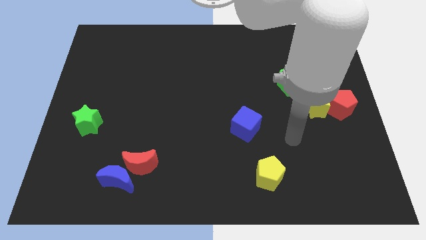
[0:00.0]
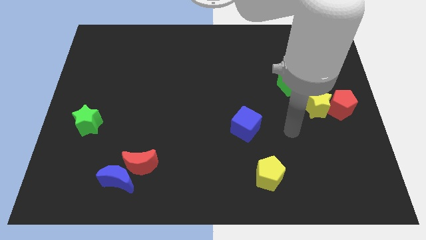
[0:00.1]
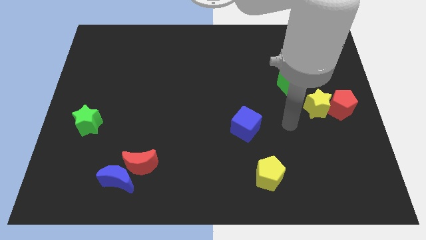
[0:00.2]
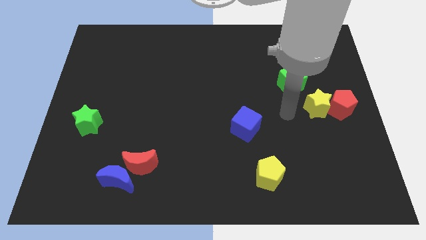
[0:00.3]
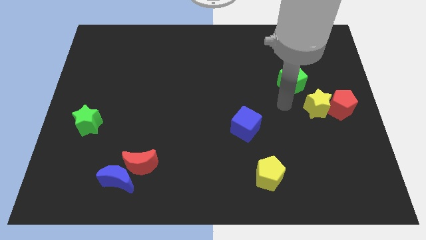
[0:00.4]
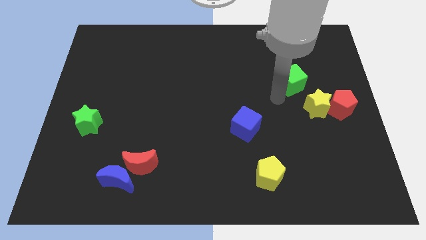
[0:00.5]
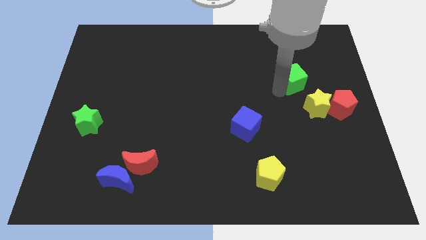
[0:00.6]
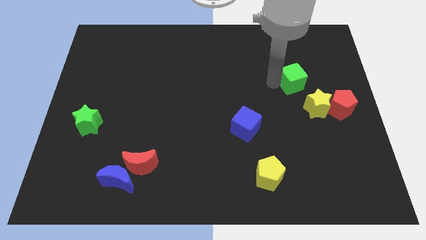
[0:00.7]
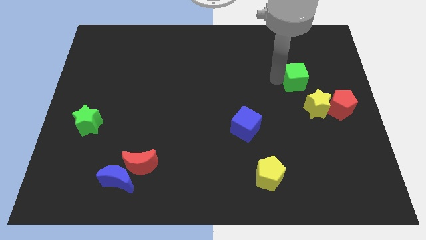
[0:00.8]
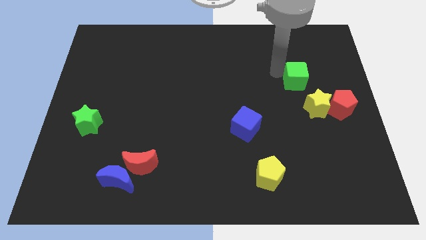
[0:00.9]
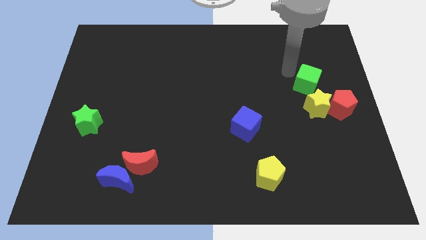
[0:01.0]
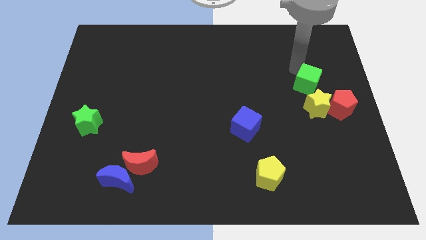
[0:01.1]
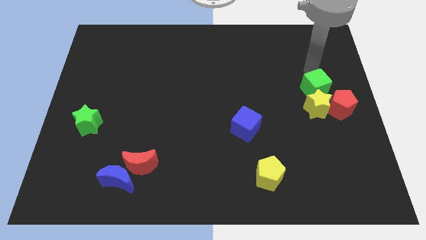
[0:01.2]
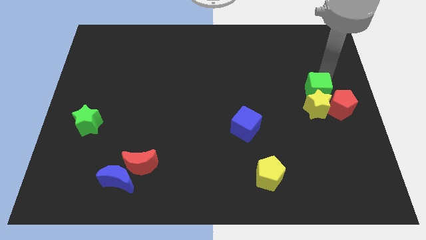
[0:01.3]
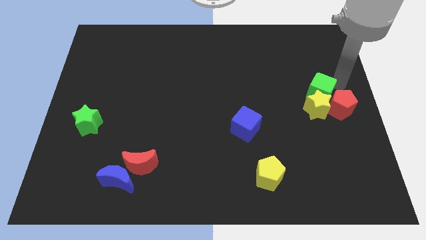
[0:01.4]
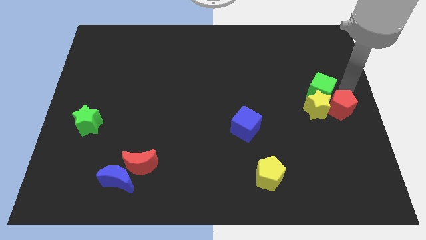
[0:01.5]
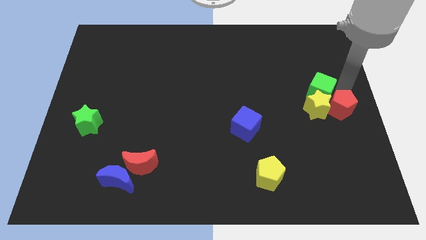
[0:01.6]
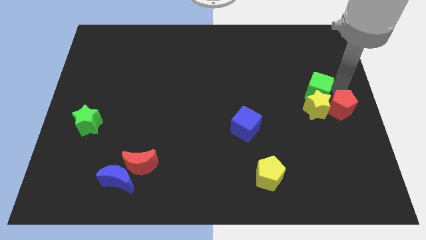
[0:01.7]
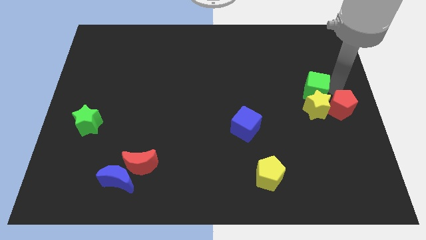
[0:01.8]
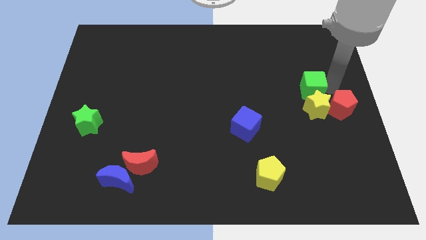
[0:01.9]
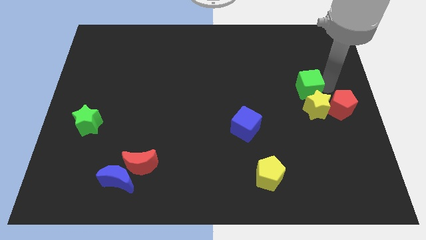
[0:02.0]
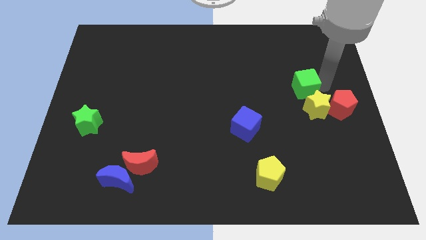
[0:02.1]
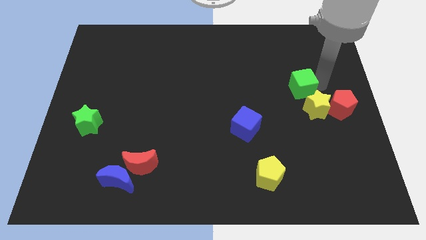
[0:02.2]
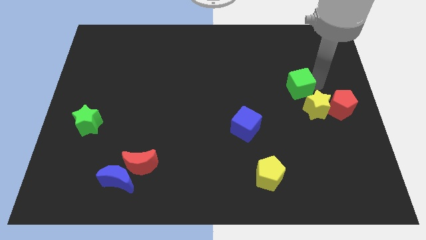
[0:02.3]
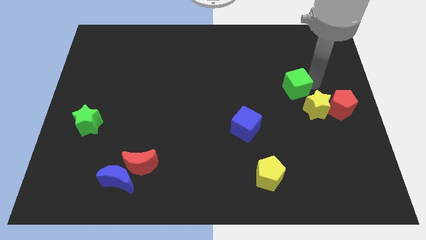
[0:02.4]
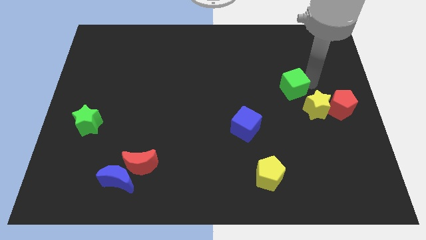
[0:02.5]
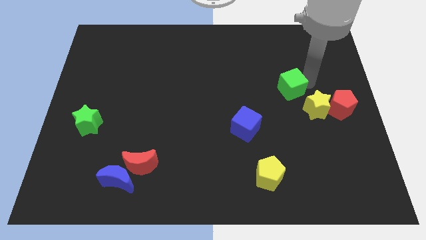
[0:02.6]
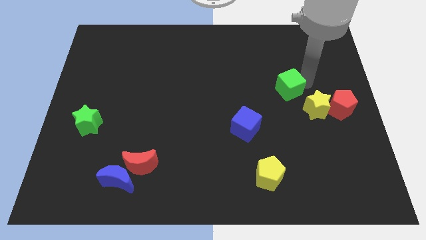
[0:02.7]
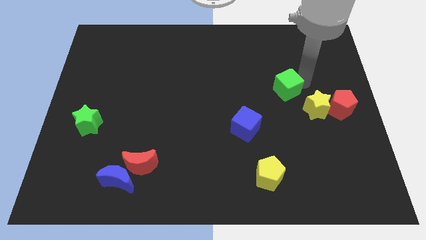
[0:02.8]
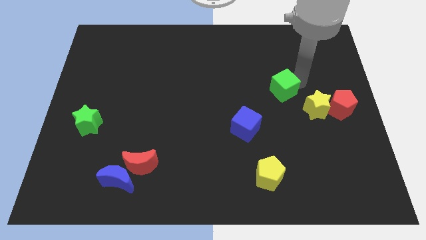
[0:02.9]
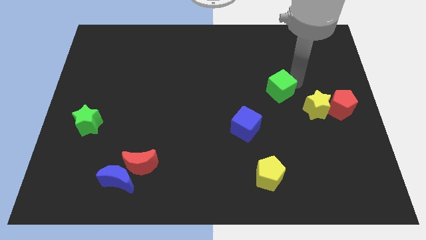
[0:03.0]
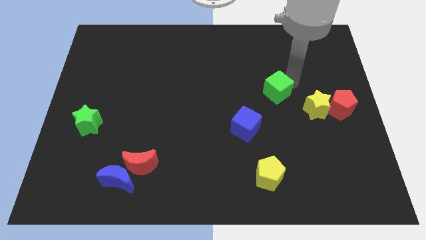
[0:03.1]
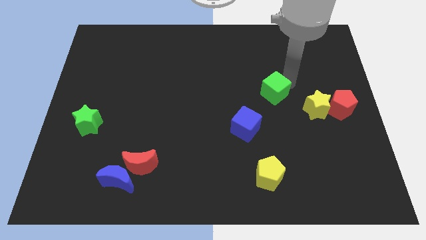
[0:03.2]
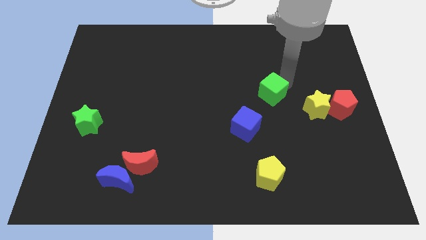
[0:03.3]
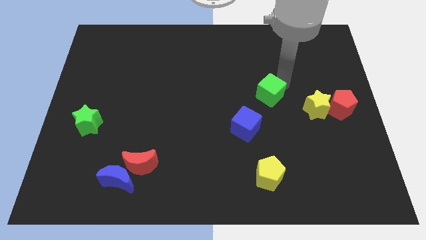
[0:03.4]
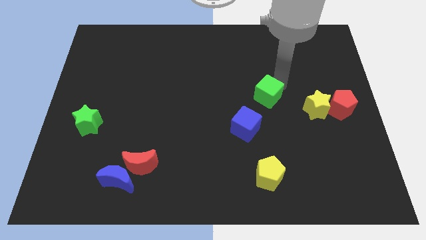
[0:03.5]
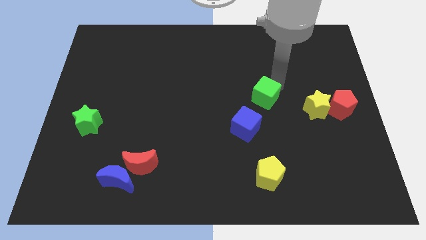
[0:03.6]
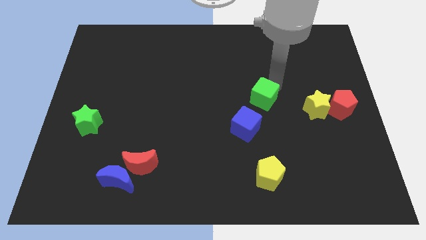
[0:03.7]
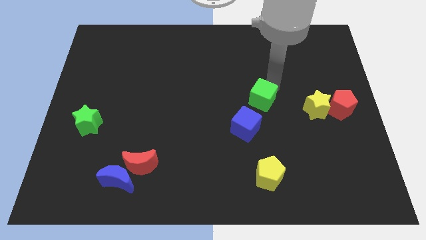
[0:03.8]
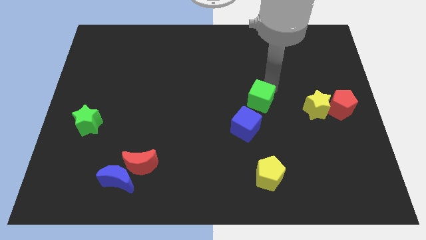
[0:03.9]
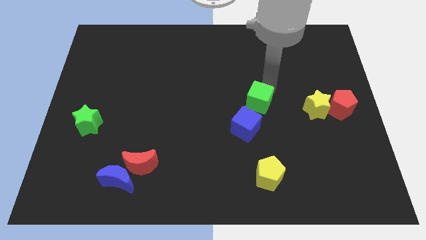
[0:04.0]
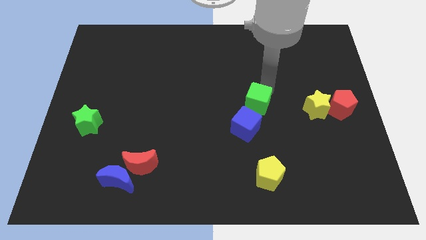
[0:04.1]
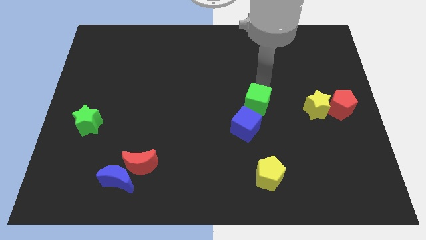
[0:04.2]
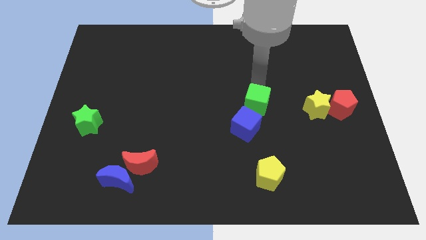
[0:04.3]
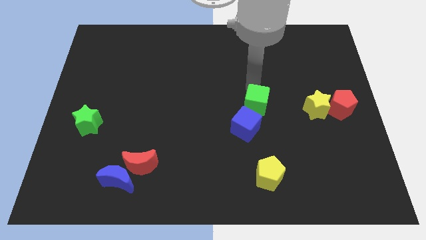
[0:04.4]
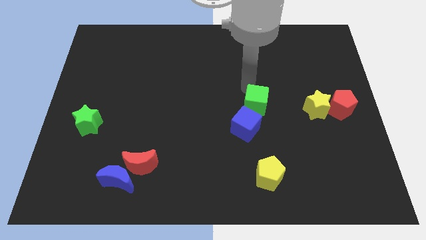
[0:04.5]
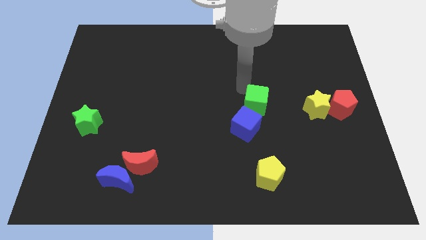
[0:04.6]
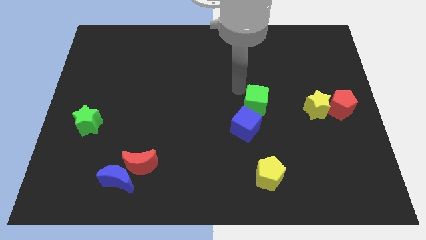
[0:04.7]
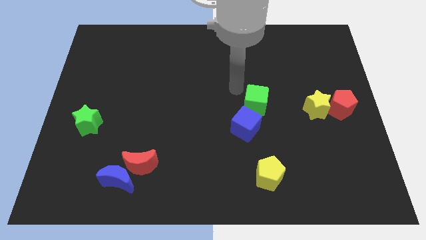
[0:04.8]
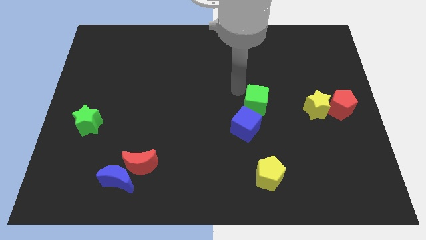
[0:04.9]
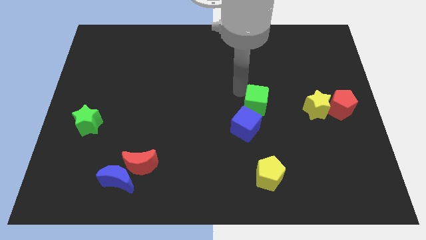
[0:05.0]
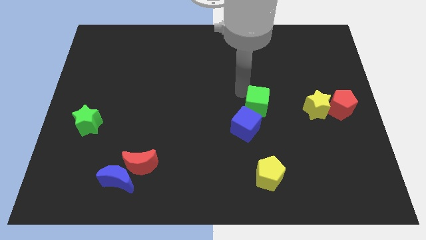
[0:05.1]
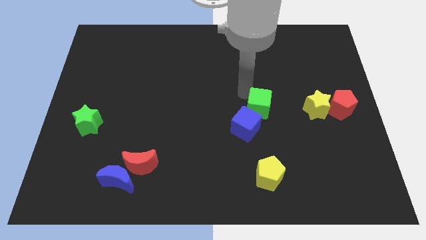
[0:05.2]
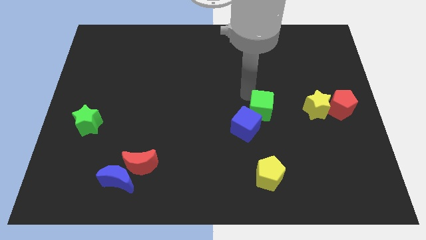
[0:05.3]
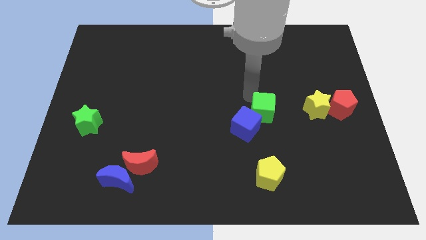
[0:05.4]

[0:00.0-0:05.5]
push the green cube next to the blue cube

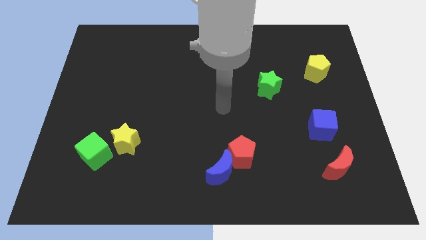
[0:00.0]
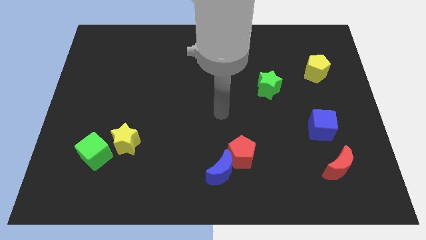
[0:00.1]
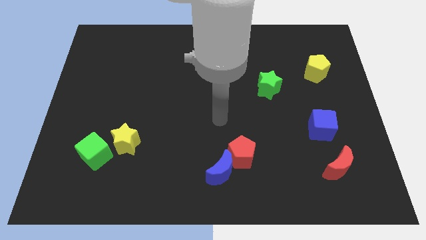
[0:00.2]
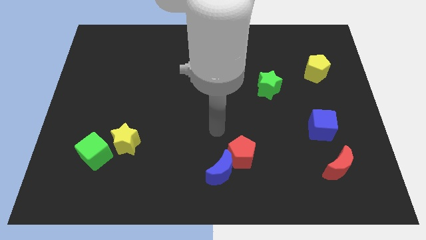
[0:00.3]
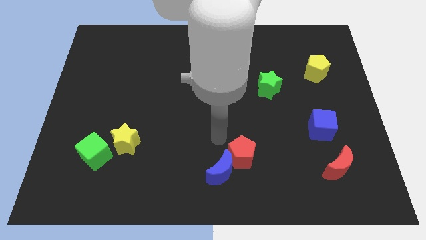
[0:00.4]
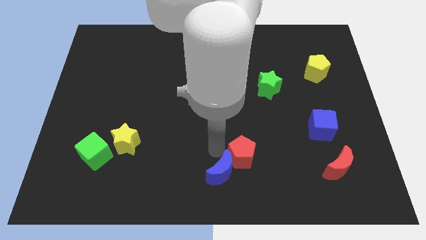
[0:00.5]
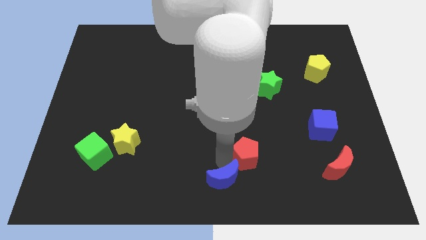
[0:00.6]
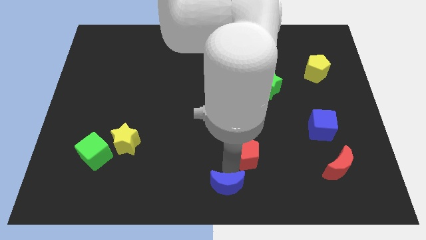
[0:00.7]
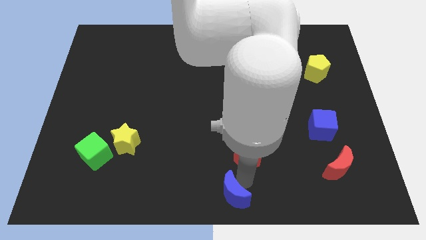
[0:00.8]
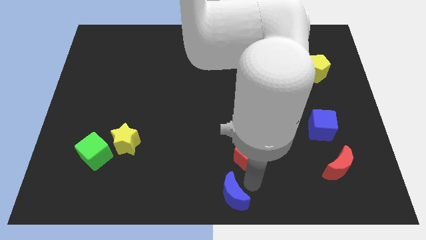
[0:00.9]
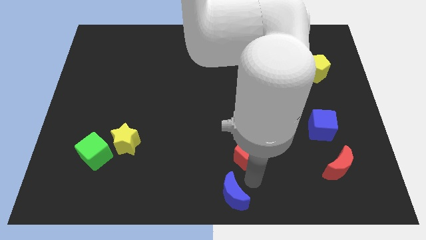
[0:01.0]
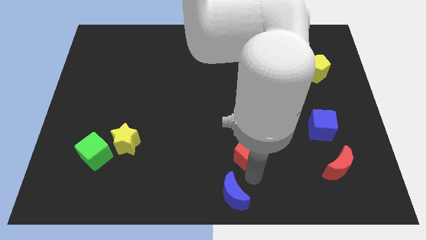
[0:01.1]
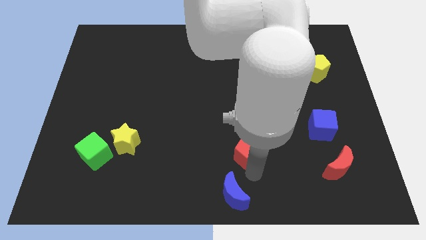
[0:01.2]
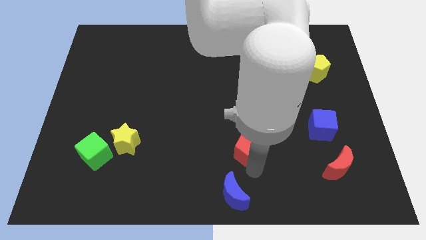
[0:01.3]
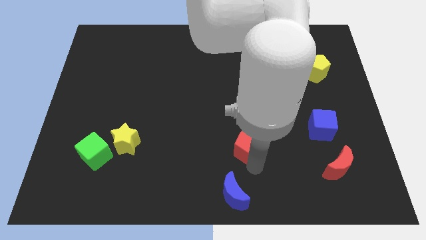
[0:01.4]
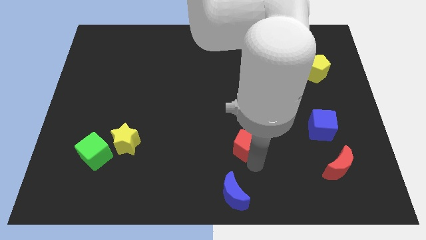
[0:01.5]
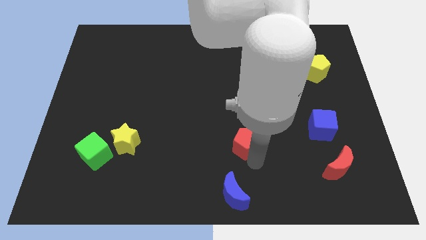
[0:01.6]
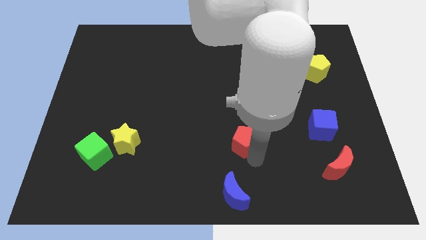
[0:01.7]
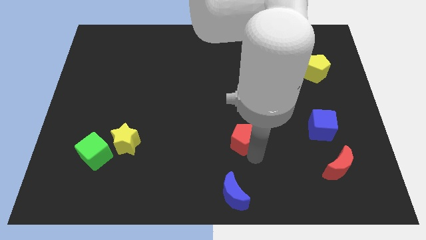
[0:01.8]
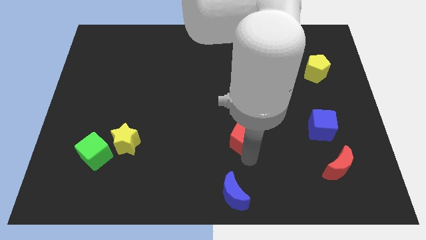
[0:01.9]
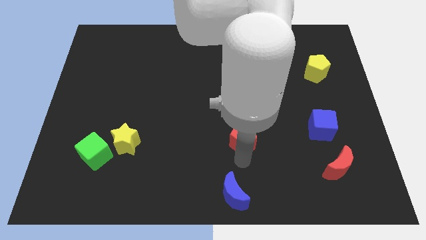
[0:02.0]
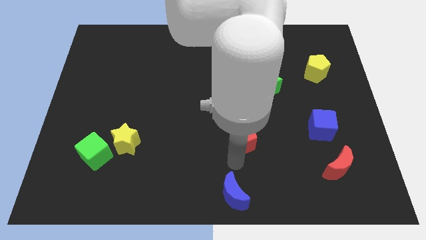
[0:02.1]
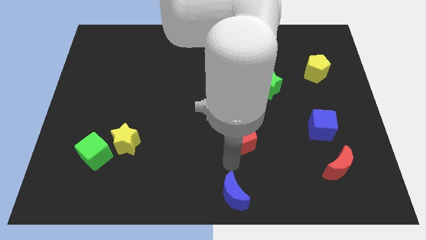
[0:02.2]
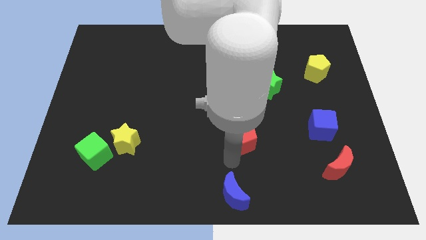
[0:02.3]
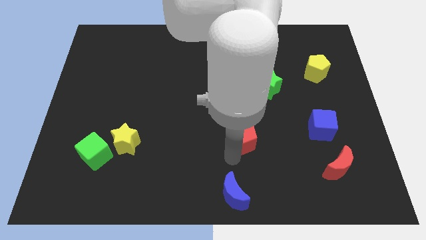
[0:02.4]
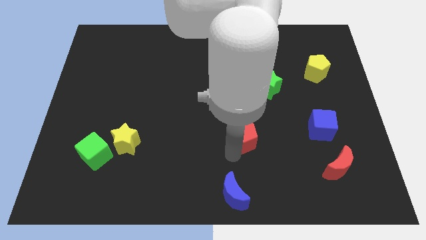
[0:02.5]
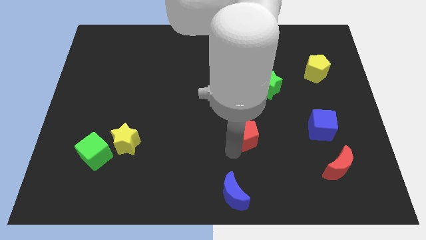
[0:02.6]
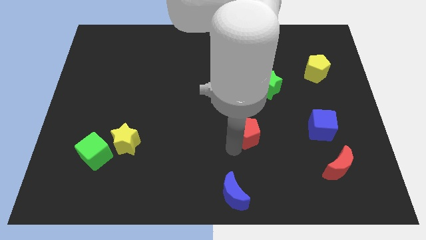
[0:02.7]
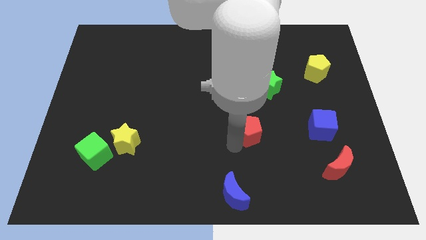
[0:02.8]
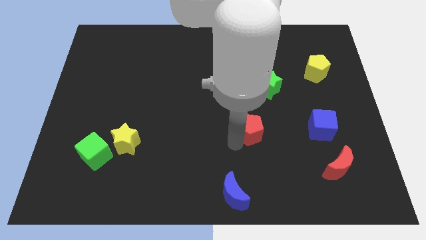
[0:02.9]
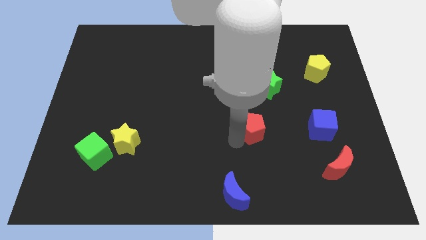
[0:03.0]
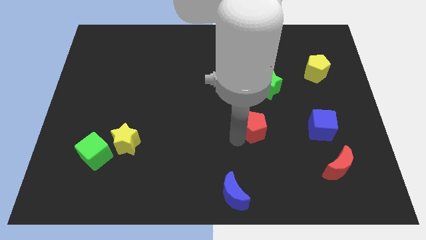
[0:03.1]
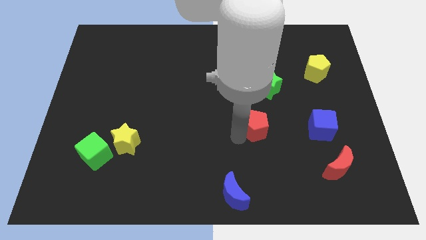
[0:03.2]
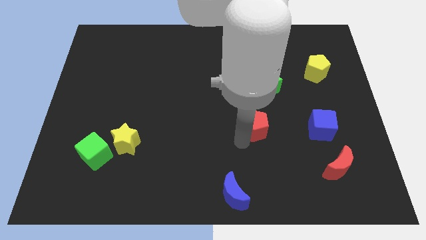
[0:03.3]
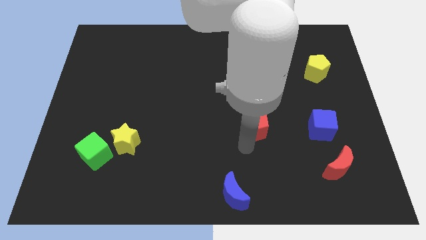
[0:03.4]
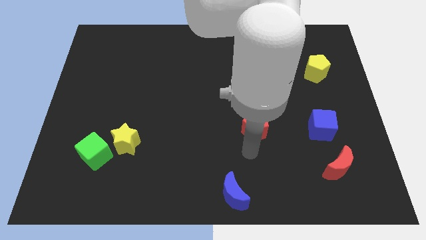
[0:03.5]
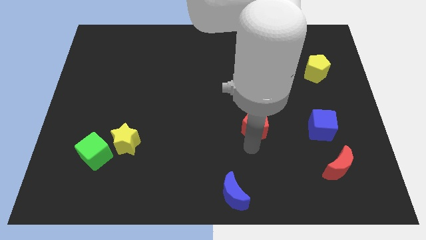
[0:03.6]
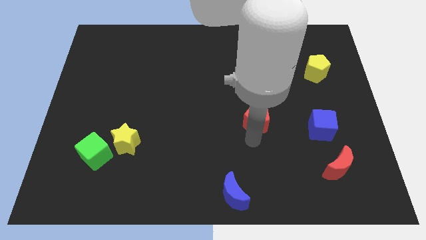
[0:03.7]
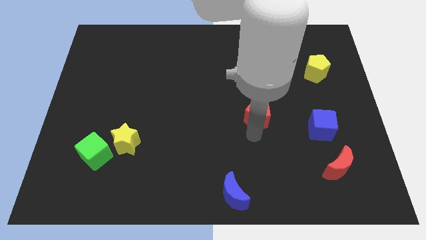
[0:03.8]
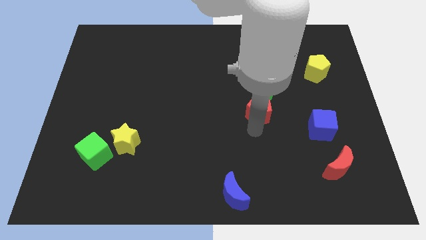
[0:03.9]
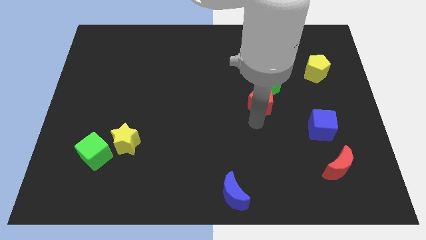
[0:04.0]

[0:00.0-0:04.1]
push the red pentagon next to the green star
